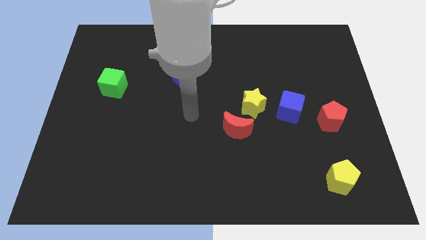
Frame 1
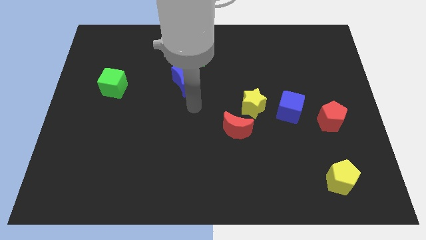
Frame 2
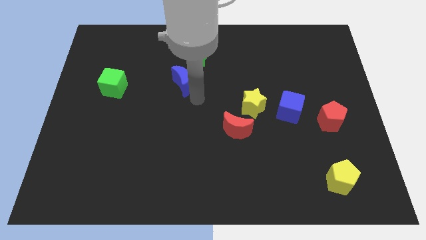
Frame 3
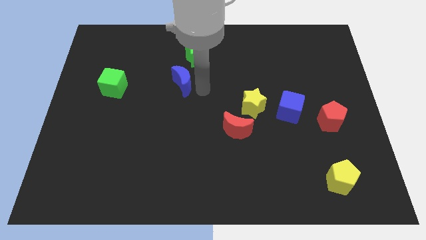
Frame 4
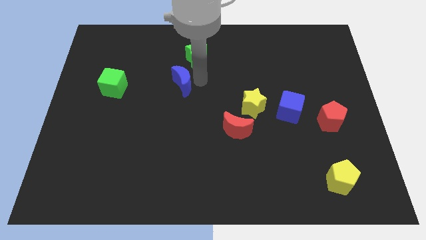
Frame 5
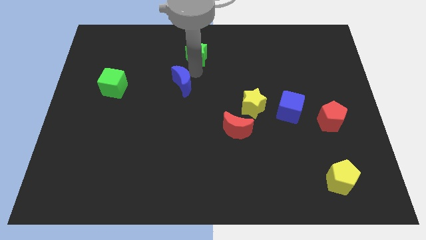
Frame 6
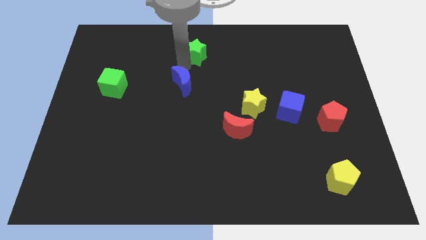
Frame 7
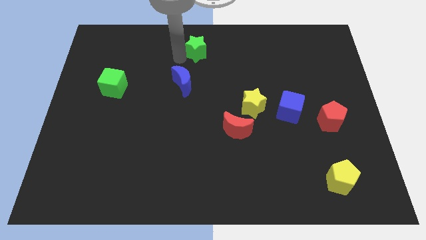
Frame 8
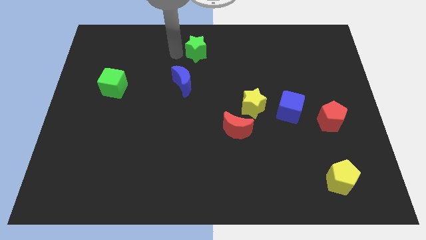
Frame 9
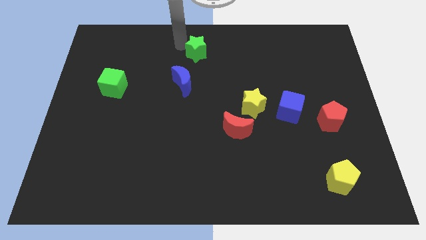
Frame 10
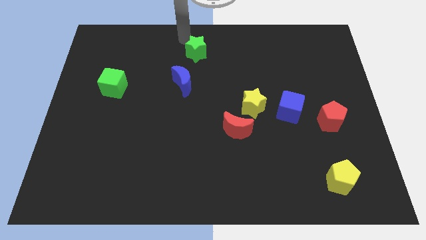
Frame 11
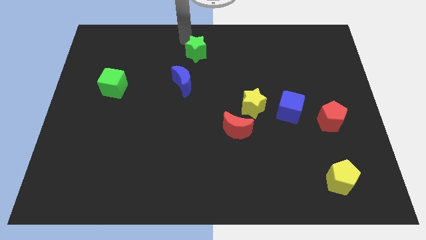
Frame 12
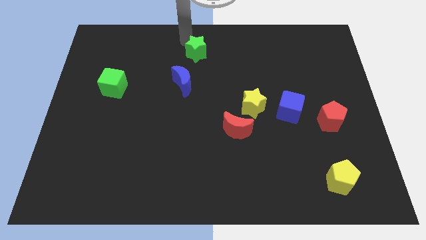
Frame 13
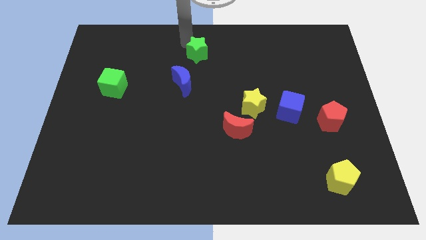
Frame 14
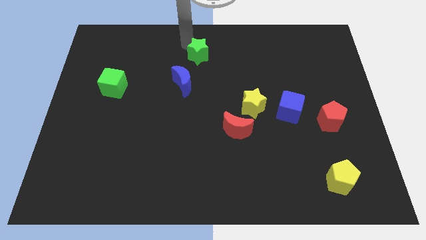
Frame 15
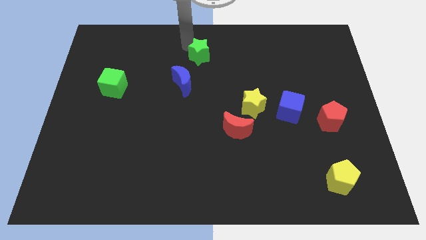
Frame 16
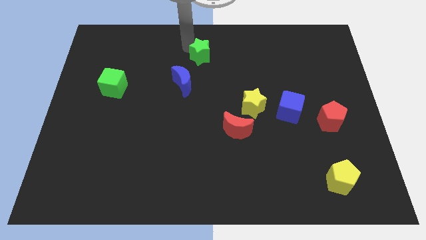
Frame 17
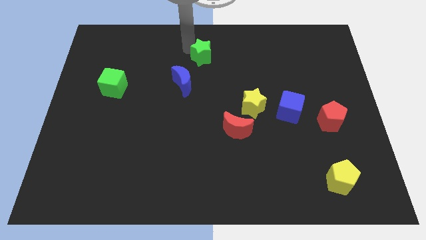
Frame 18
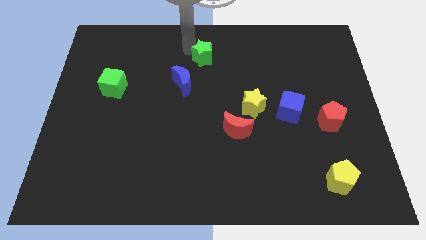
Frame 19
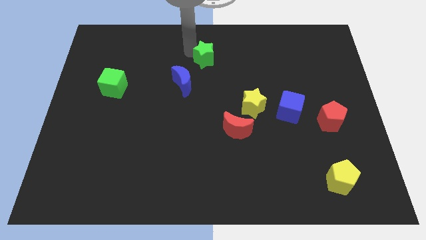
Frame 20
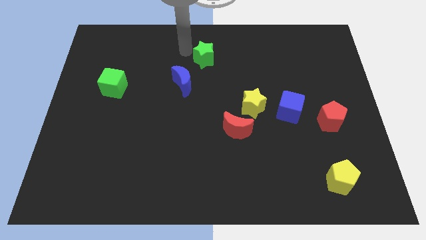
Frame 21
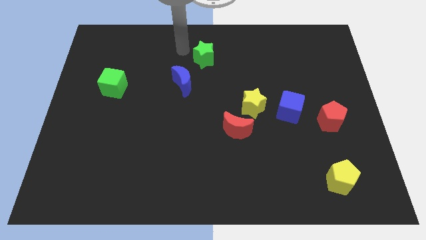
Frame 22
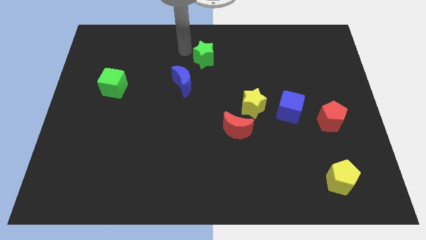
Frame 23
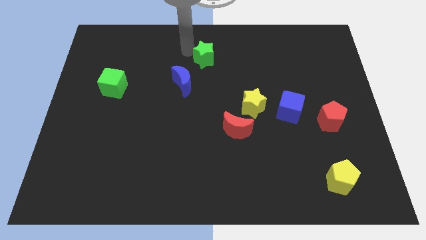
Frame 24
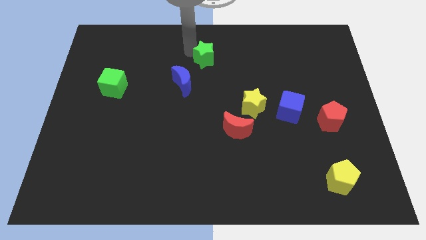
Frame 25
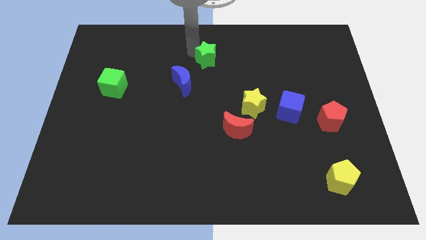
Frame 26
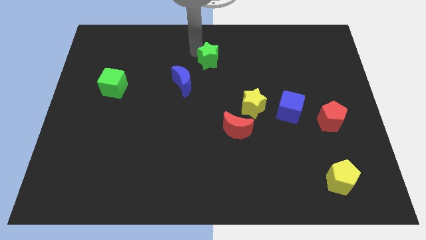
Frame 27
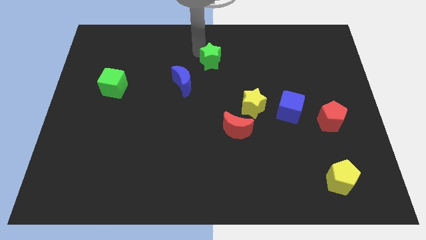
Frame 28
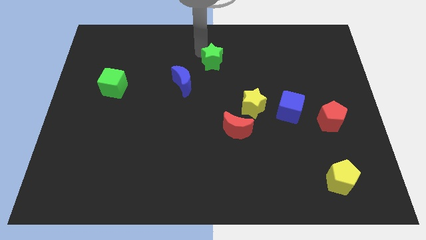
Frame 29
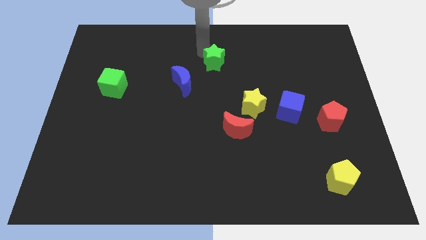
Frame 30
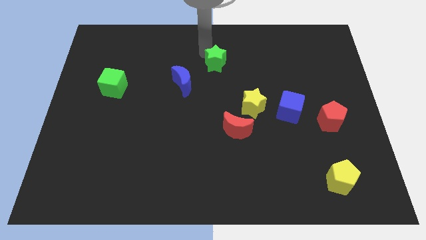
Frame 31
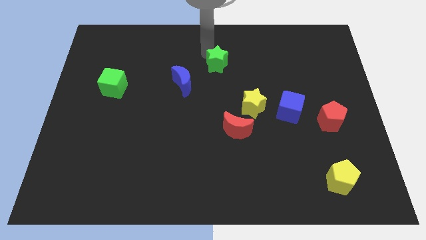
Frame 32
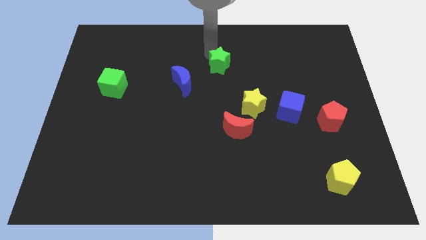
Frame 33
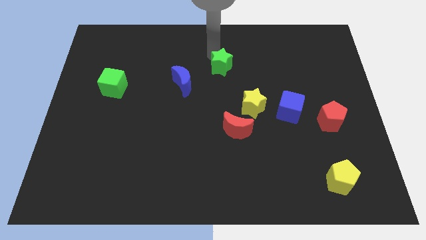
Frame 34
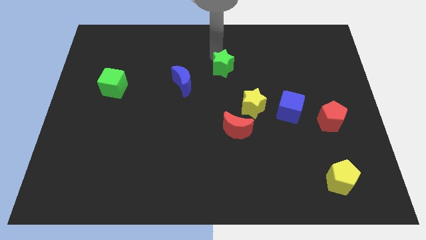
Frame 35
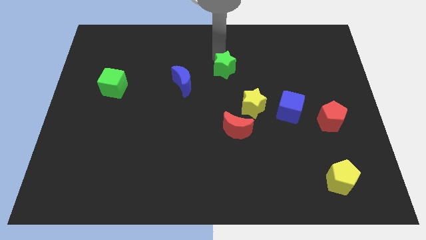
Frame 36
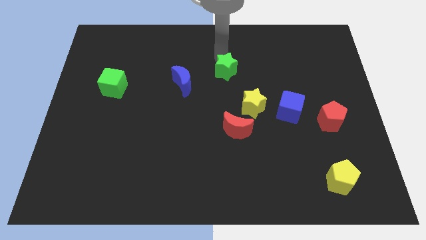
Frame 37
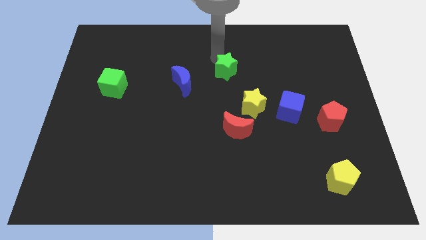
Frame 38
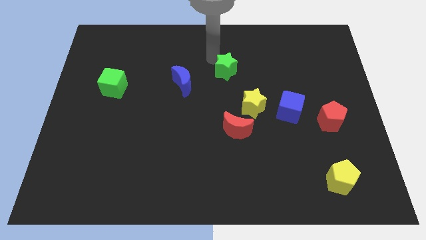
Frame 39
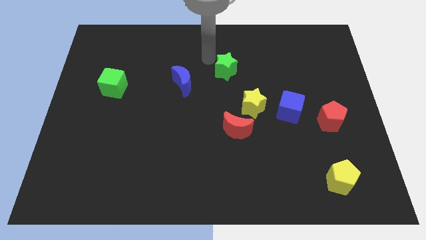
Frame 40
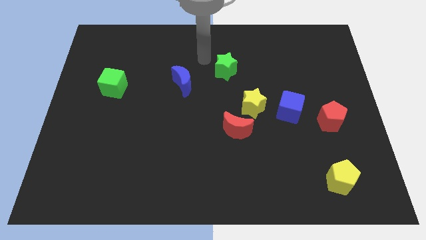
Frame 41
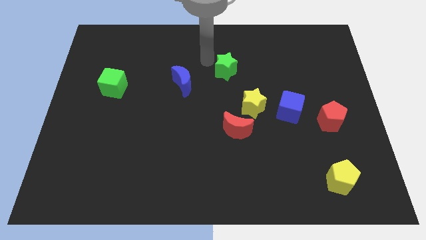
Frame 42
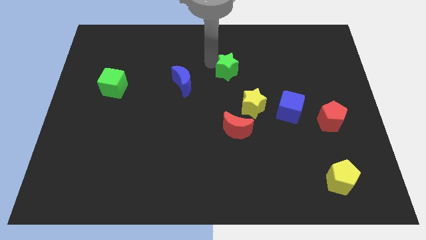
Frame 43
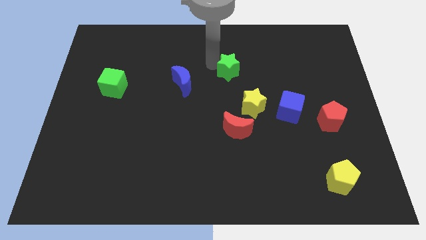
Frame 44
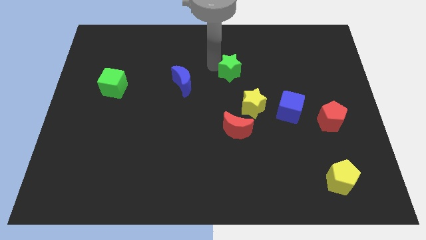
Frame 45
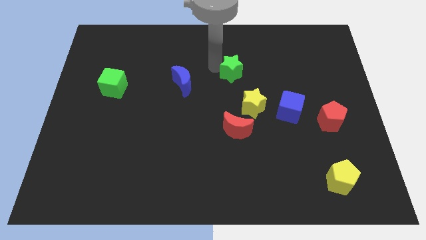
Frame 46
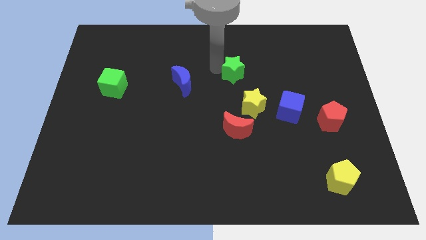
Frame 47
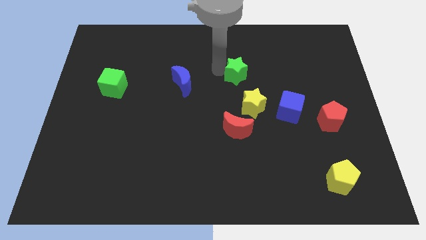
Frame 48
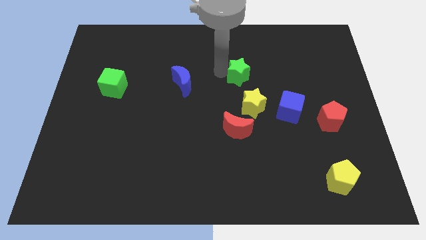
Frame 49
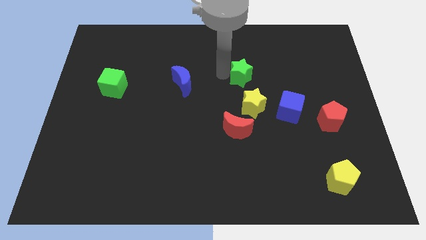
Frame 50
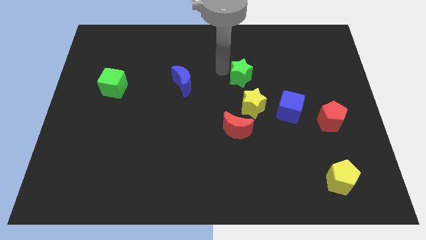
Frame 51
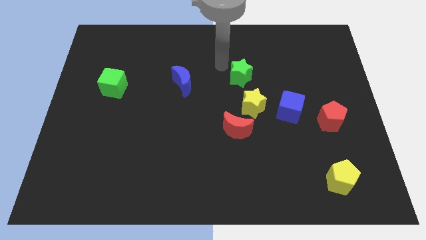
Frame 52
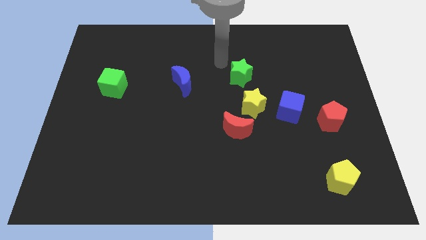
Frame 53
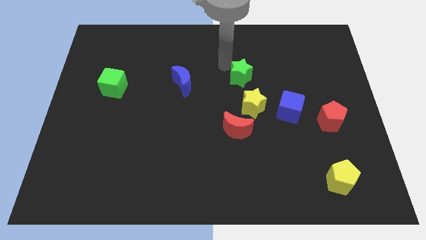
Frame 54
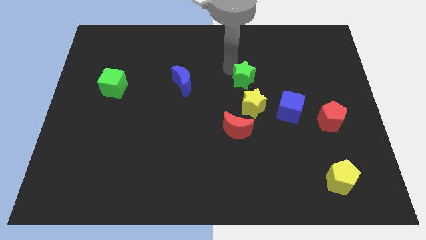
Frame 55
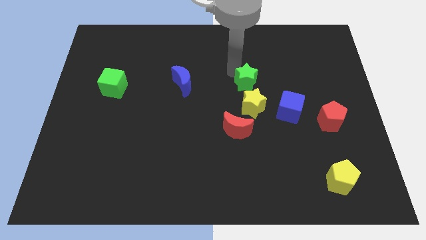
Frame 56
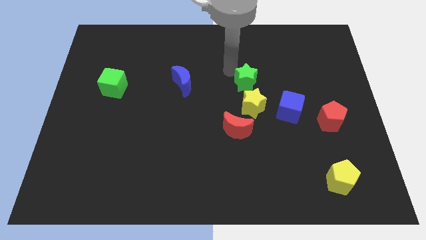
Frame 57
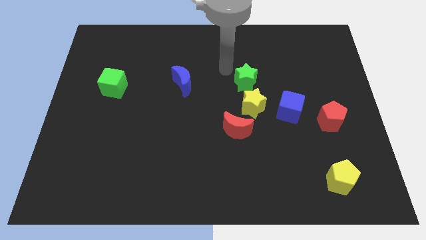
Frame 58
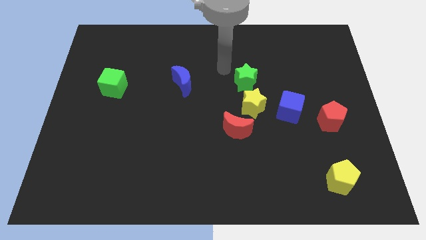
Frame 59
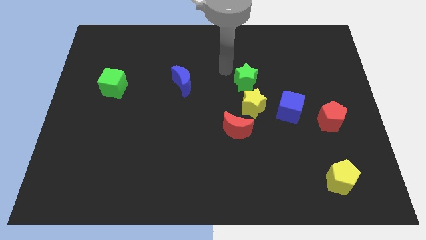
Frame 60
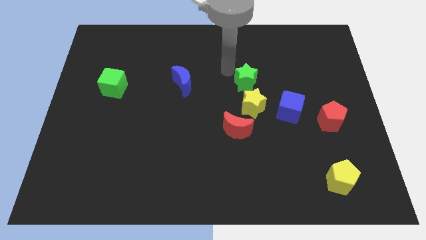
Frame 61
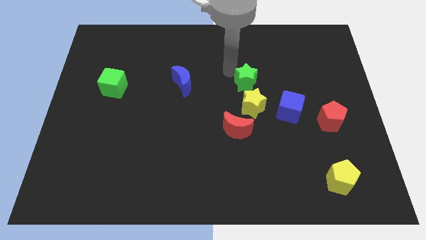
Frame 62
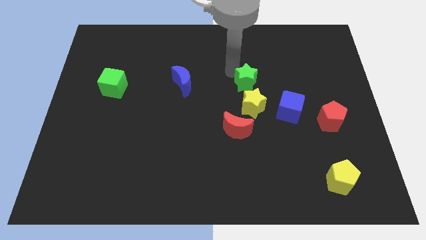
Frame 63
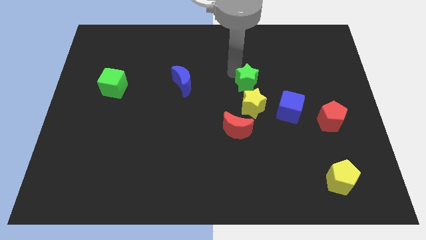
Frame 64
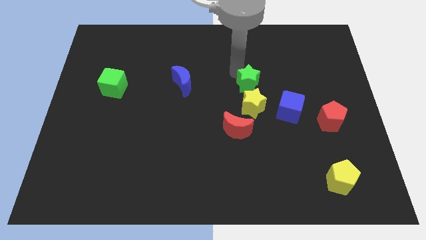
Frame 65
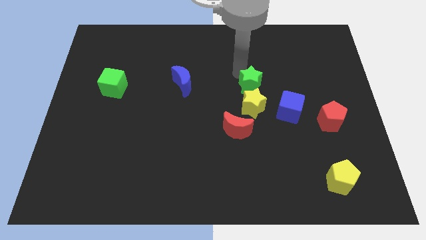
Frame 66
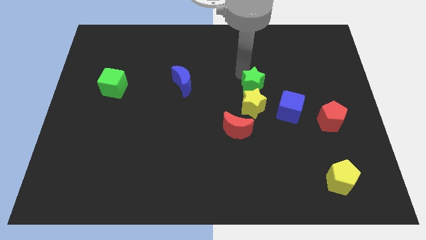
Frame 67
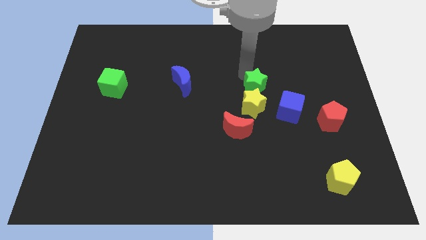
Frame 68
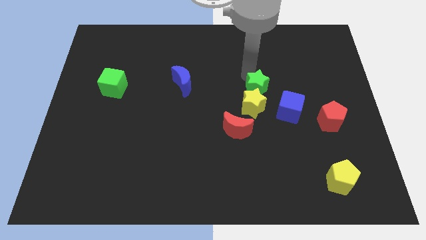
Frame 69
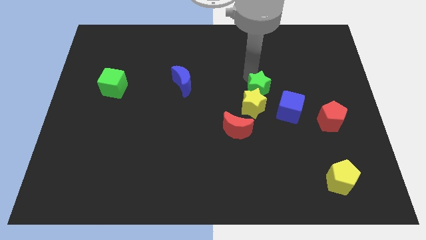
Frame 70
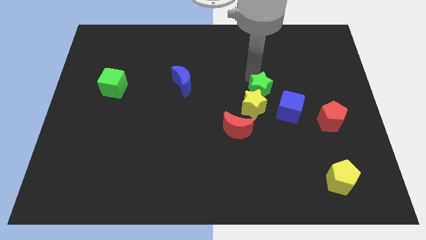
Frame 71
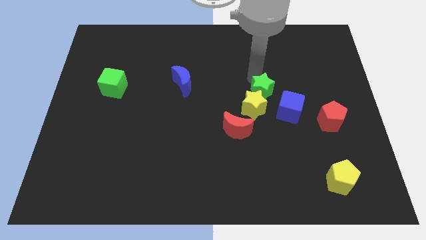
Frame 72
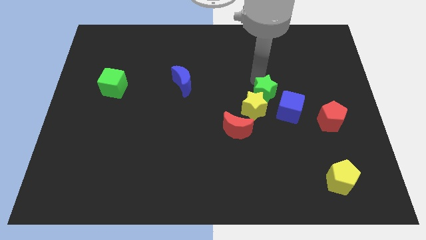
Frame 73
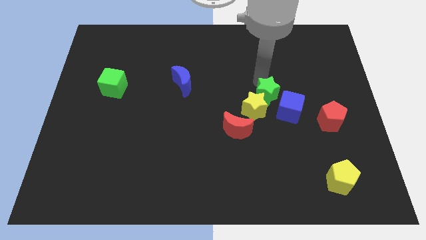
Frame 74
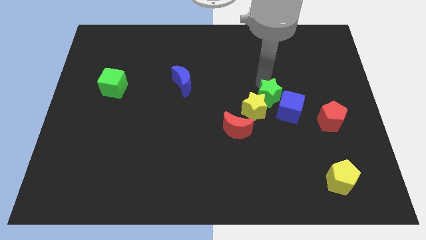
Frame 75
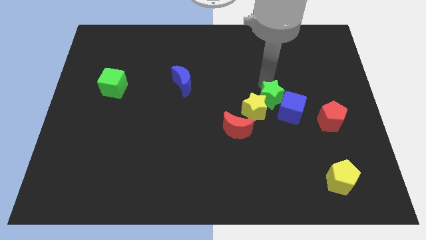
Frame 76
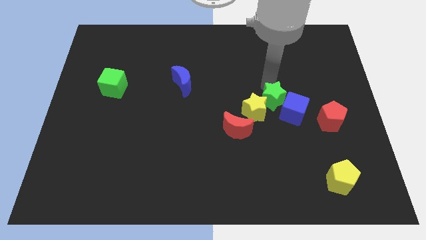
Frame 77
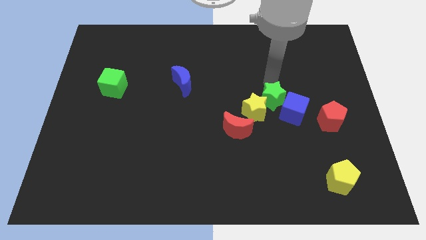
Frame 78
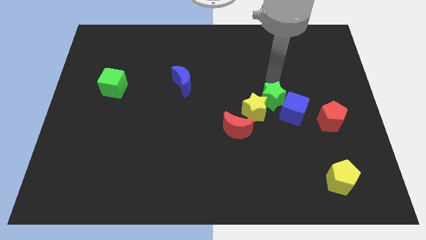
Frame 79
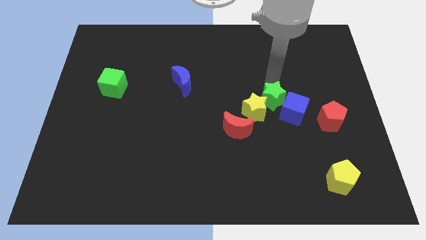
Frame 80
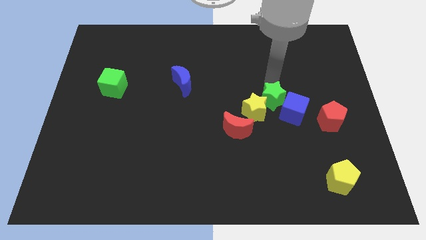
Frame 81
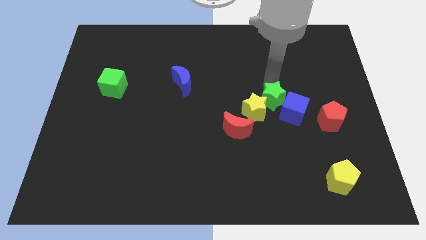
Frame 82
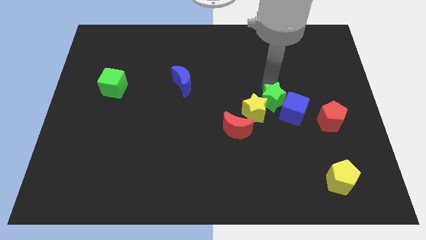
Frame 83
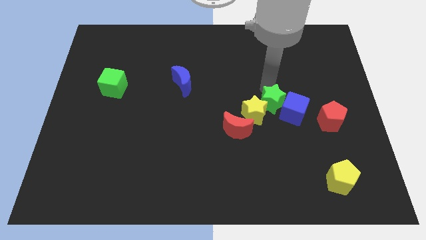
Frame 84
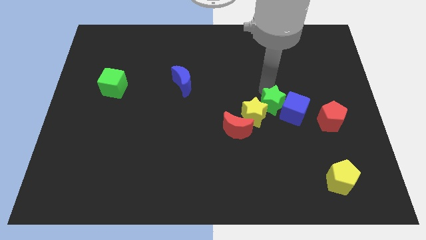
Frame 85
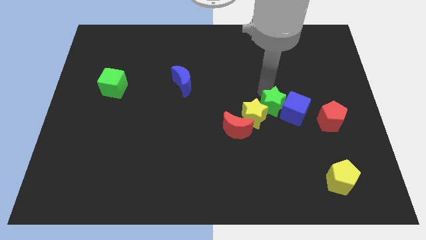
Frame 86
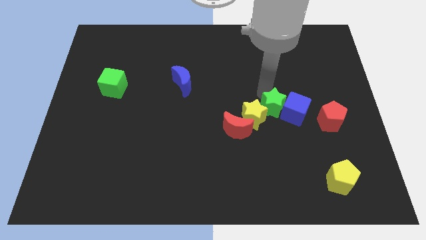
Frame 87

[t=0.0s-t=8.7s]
move the green star diagonally down and to the left of the blue cube
